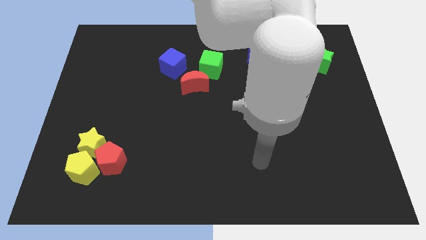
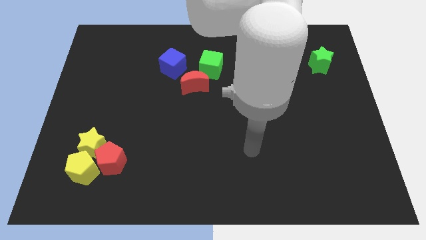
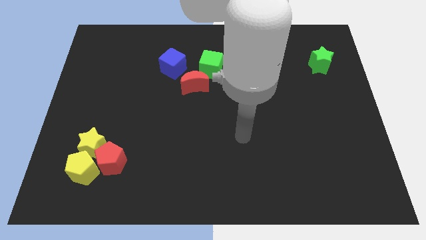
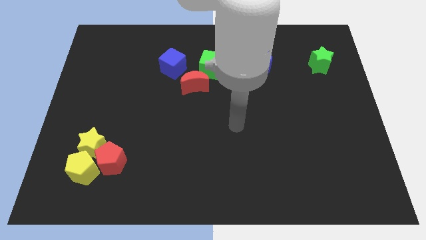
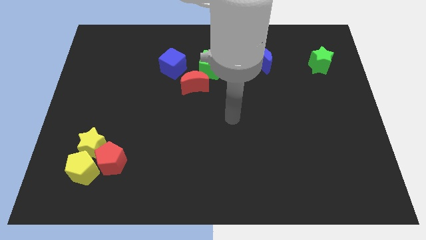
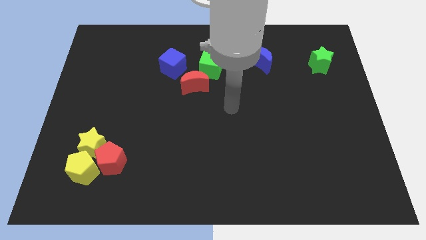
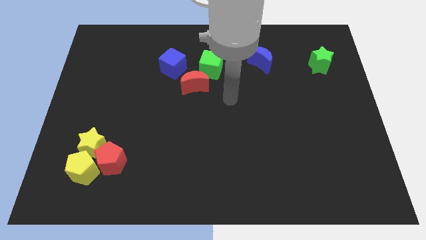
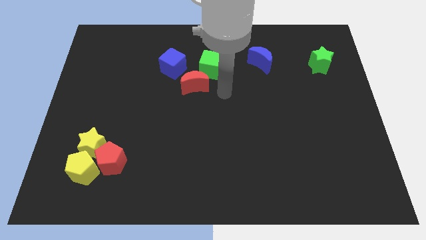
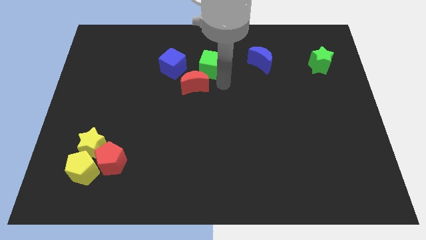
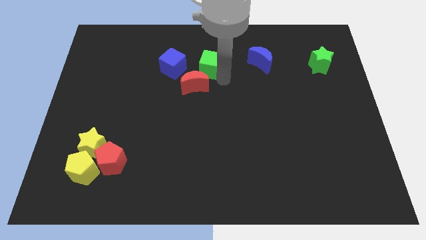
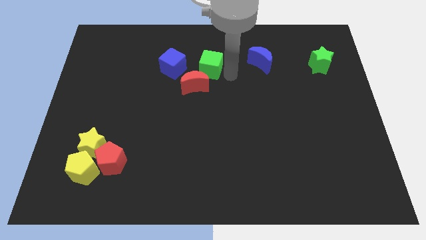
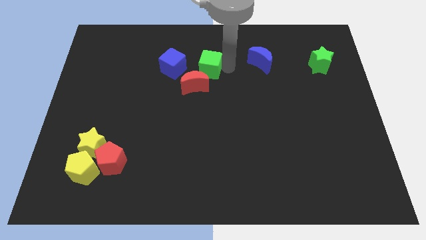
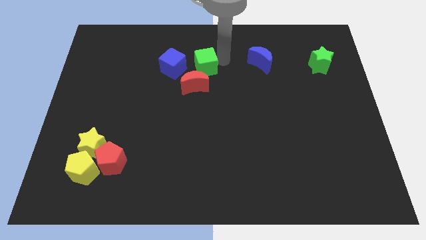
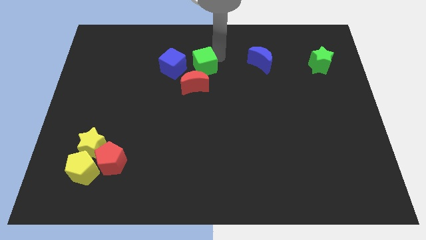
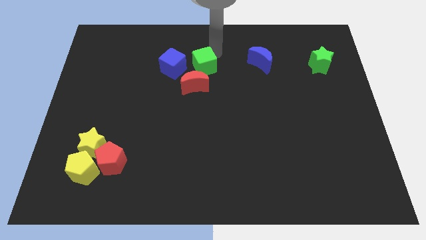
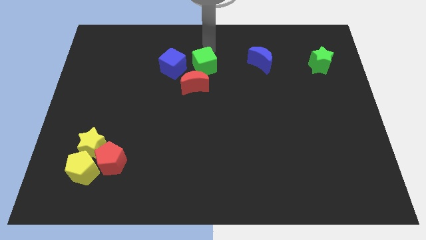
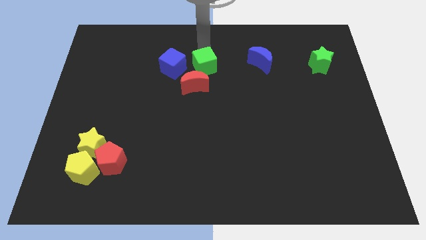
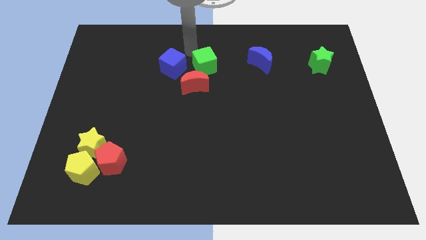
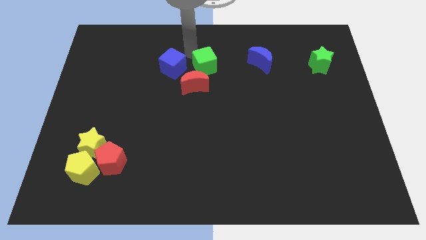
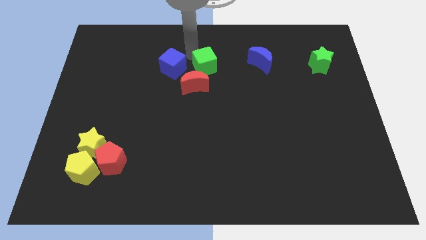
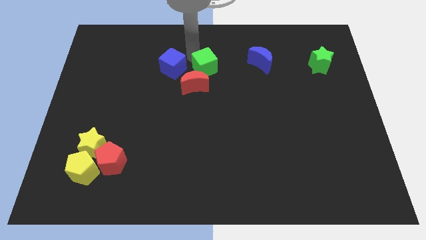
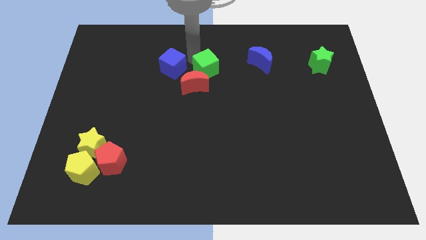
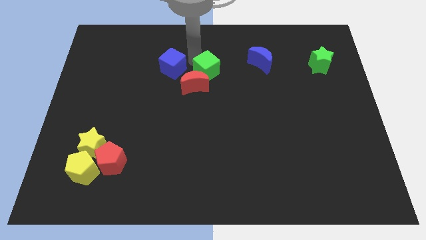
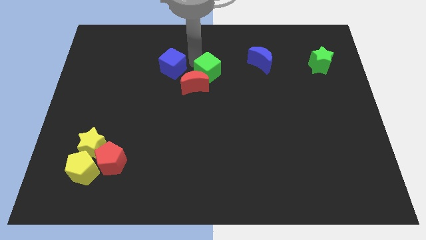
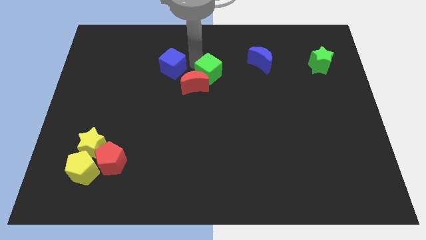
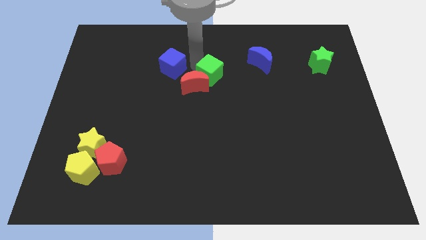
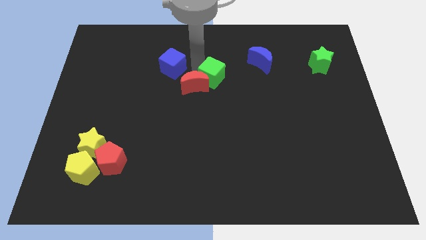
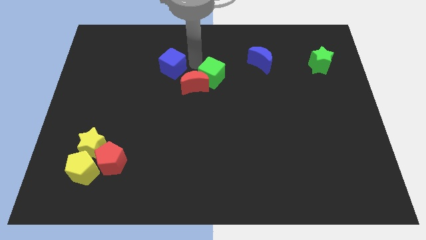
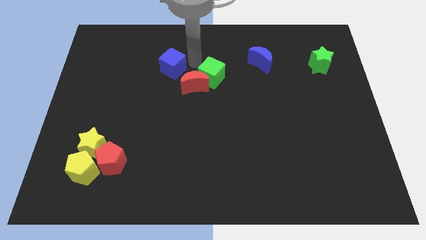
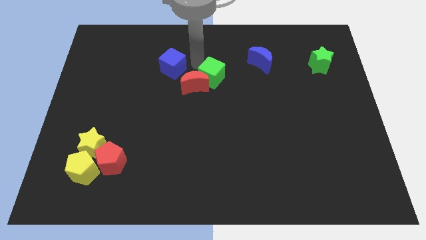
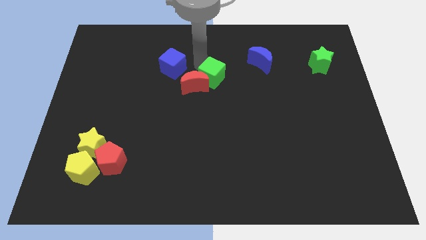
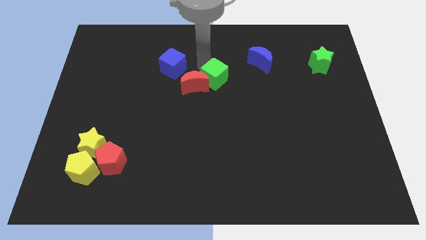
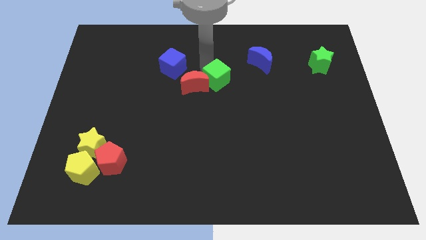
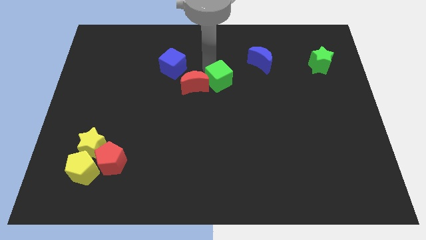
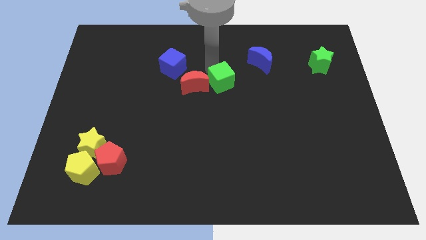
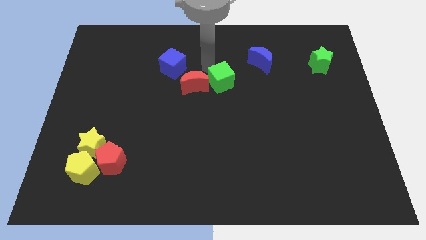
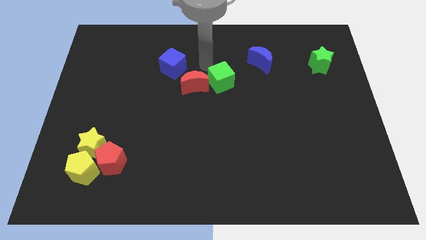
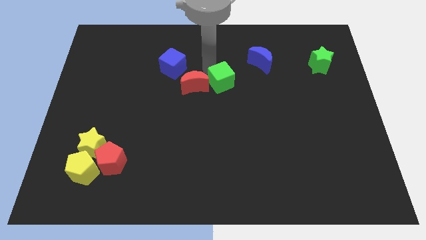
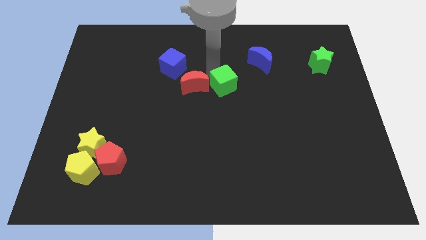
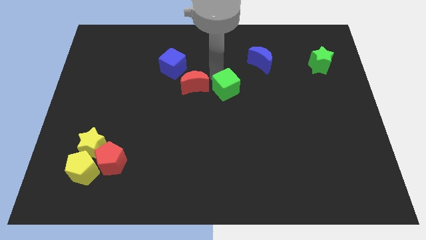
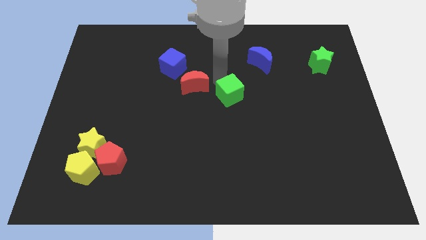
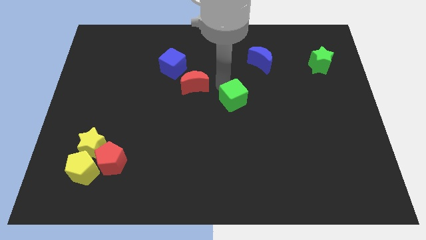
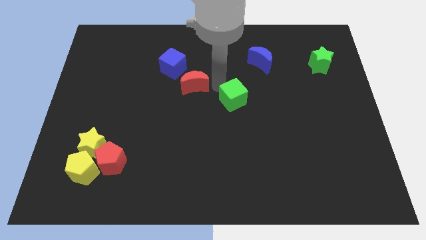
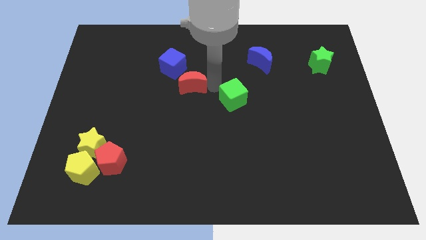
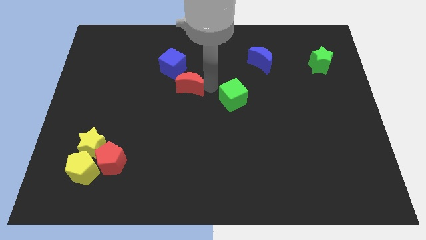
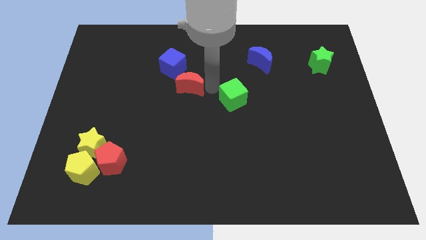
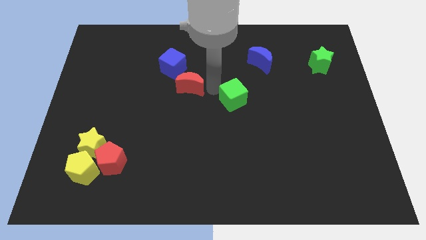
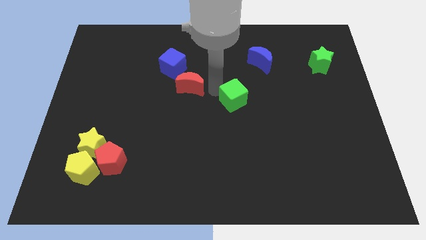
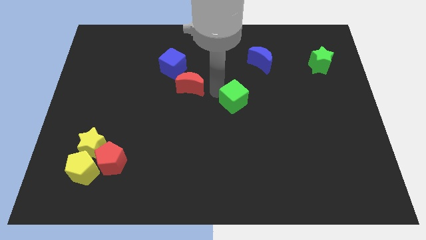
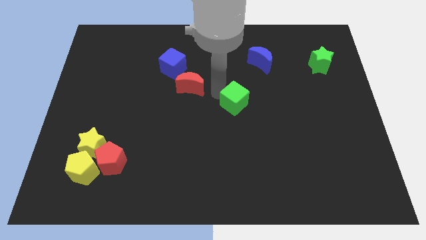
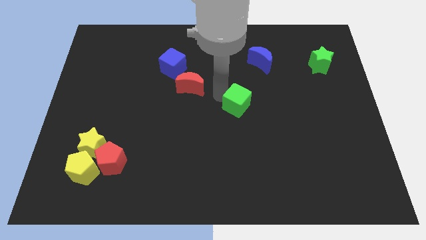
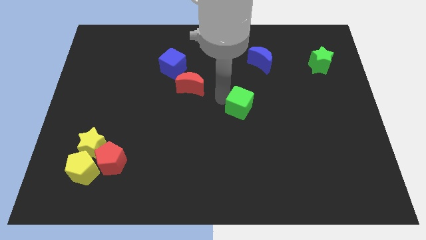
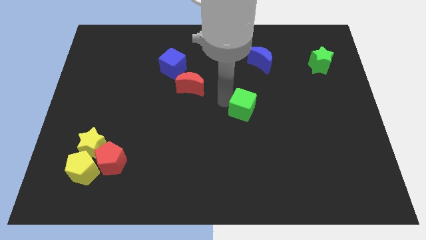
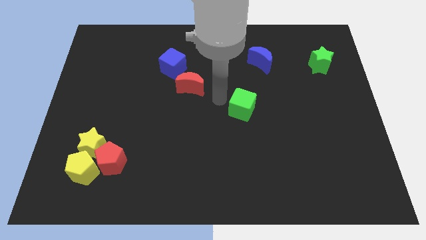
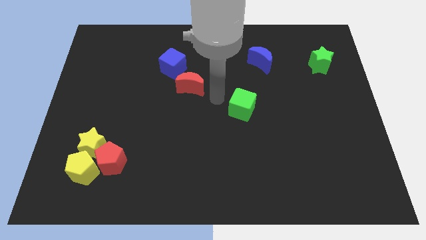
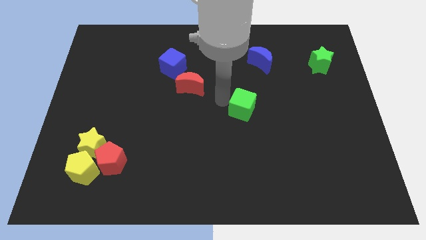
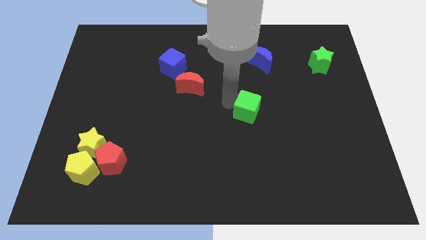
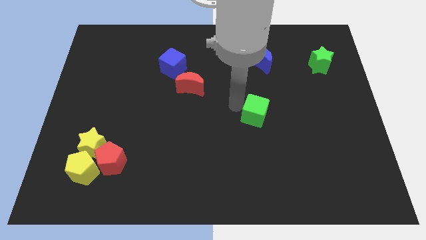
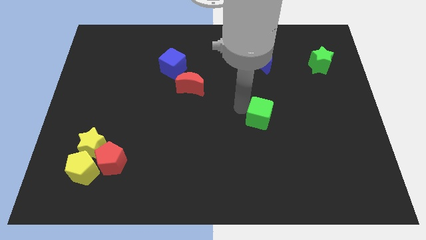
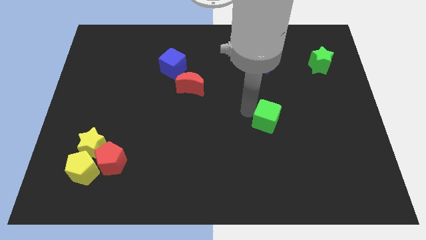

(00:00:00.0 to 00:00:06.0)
push the green cube downwards and right

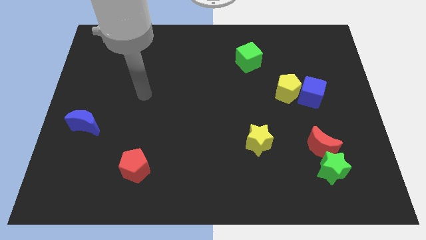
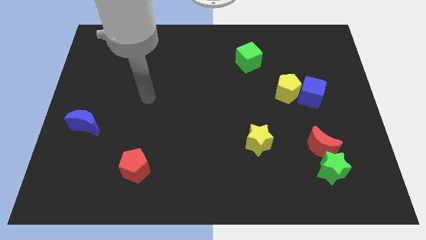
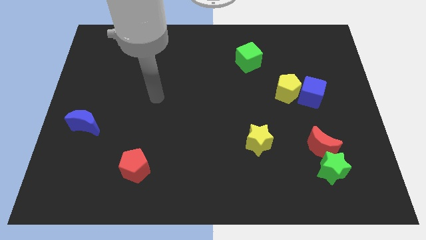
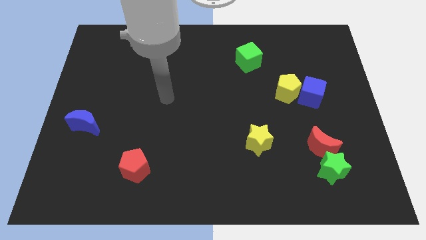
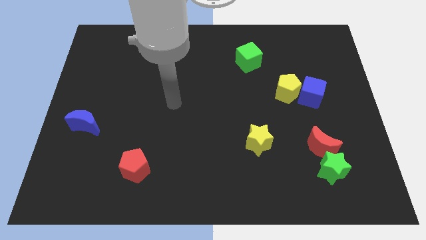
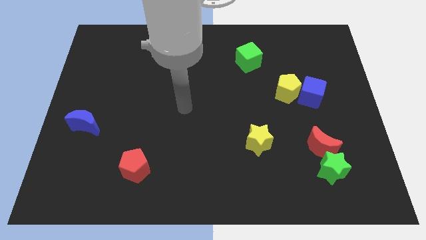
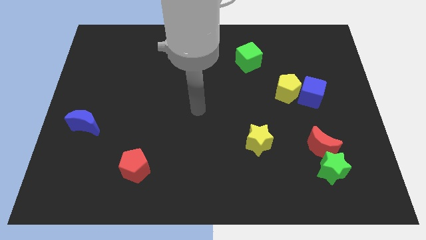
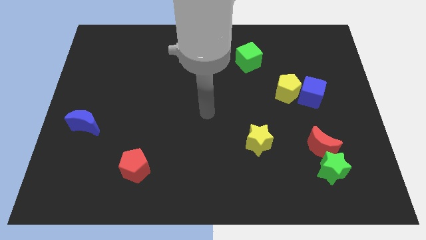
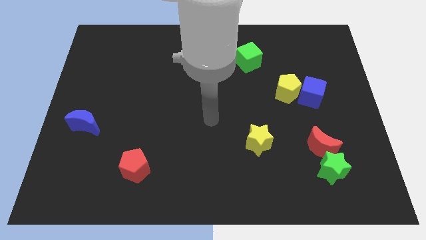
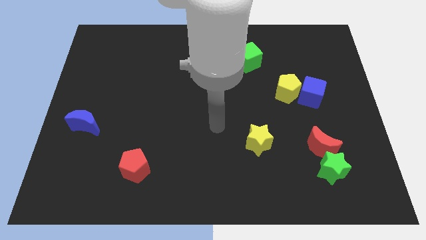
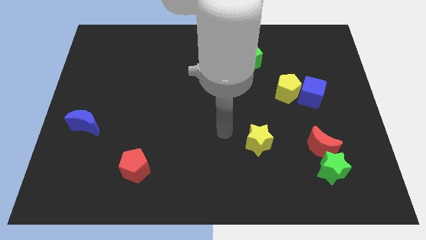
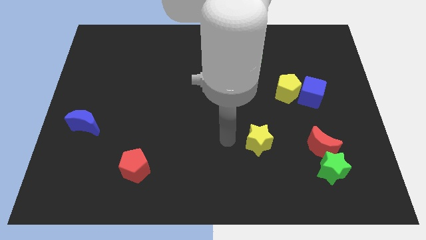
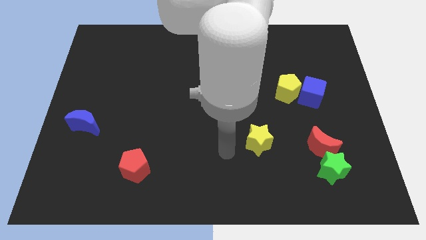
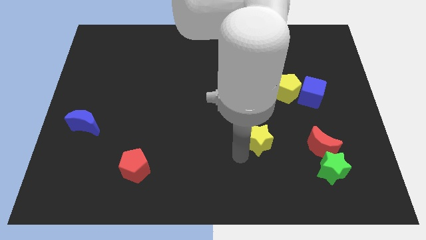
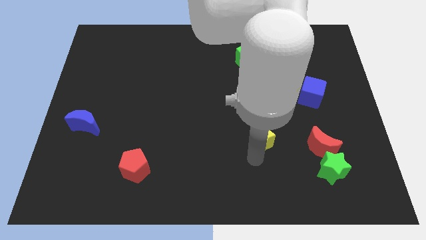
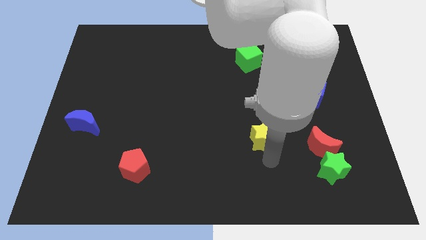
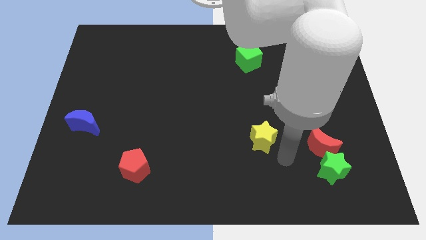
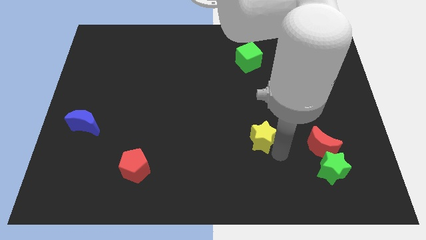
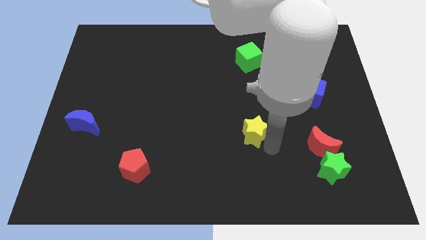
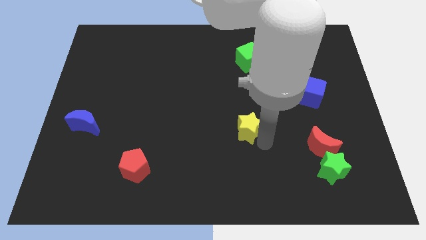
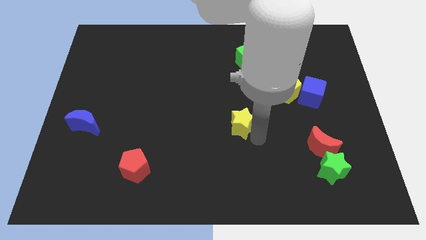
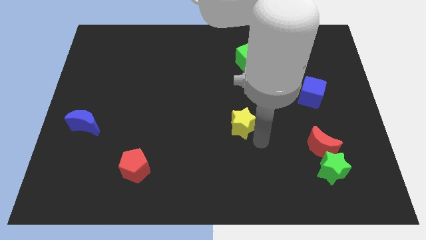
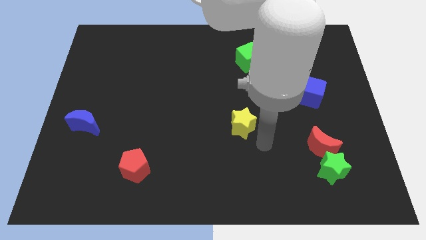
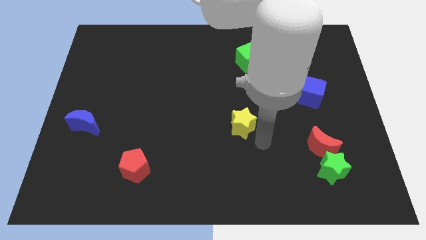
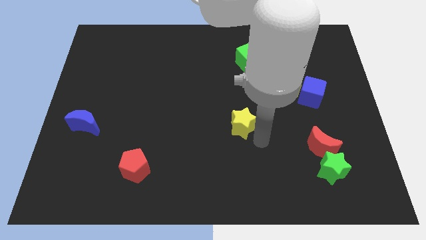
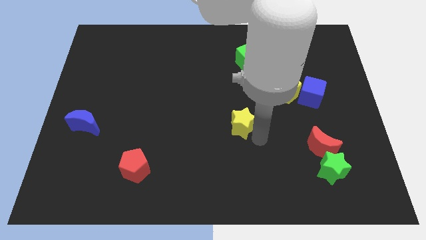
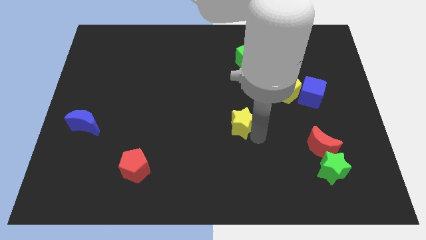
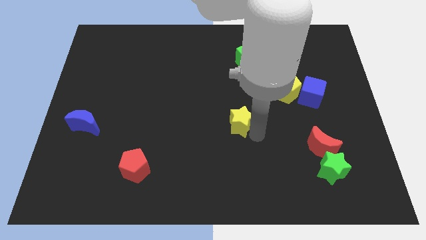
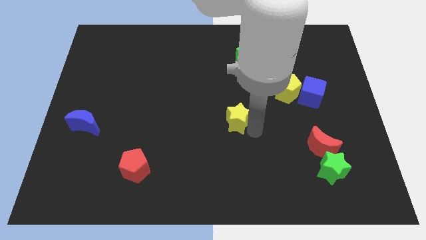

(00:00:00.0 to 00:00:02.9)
slide the yellow star a little bit diagonally up and left
